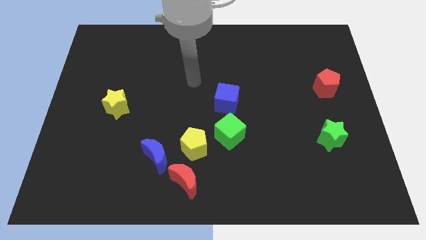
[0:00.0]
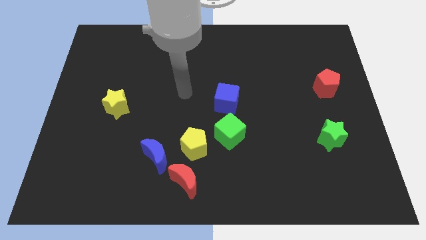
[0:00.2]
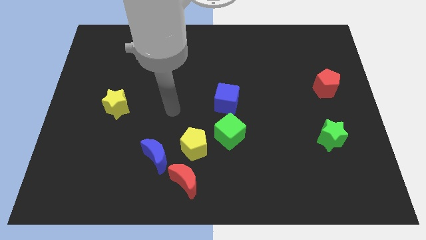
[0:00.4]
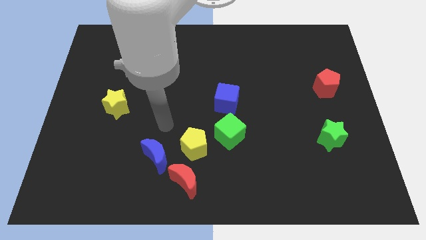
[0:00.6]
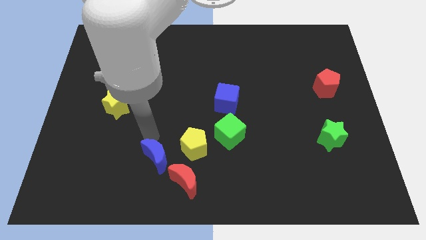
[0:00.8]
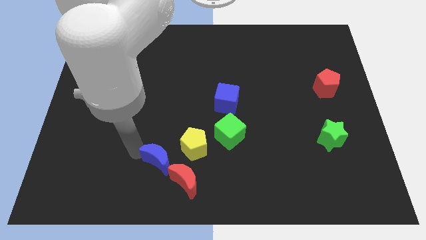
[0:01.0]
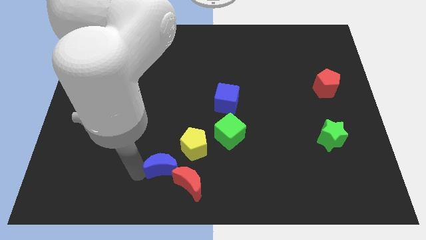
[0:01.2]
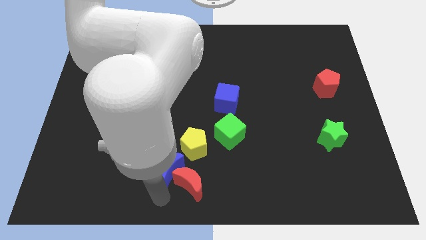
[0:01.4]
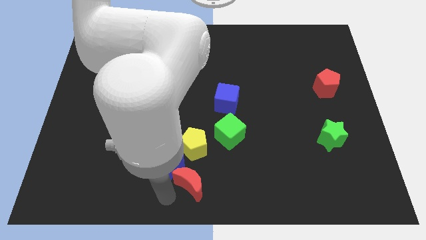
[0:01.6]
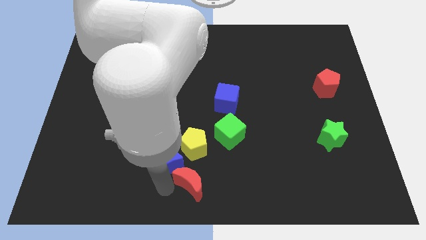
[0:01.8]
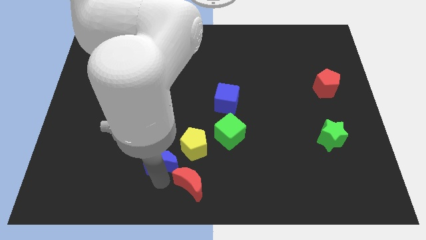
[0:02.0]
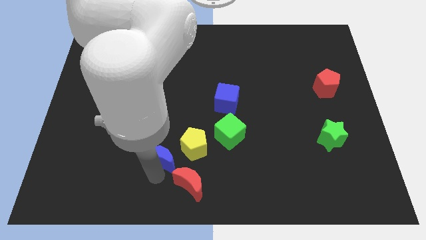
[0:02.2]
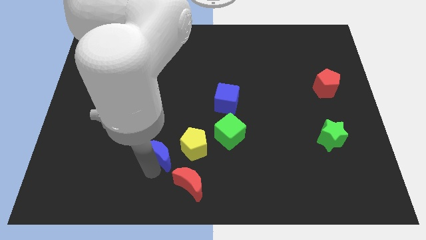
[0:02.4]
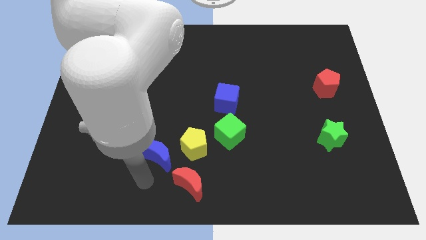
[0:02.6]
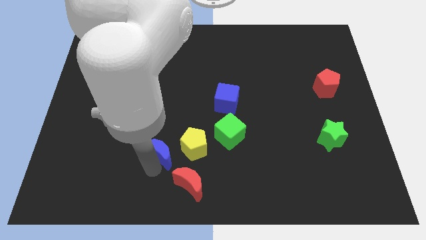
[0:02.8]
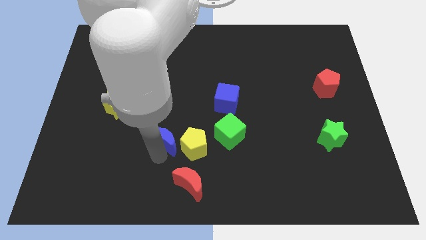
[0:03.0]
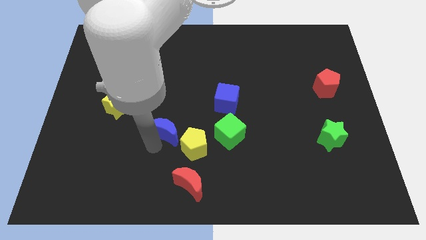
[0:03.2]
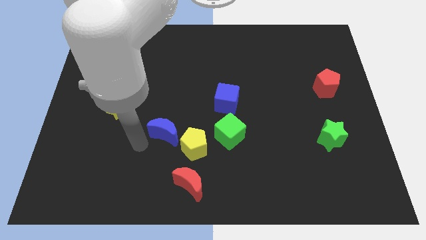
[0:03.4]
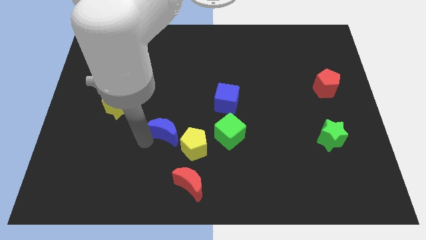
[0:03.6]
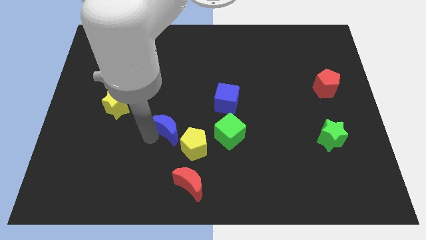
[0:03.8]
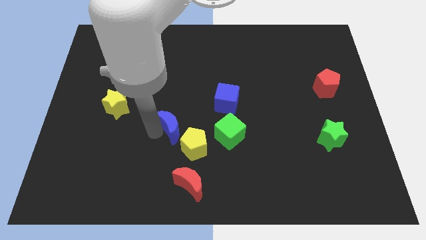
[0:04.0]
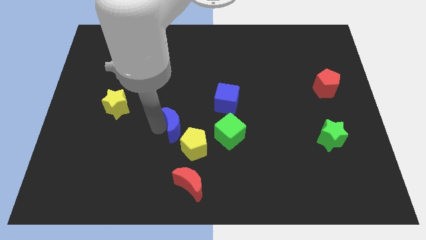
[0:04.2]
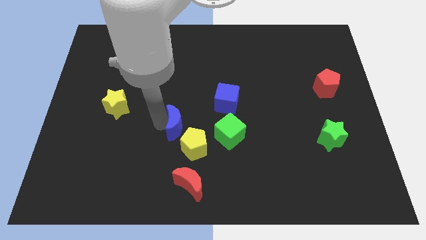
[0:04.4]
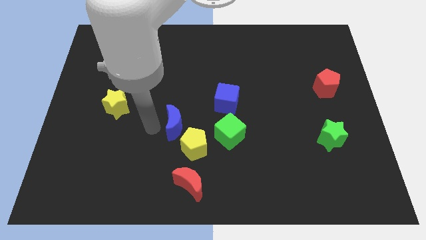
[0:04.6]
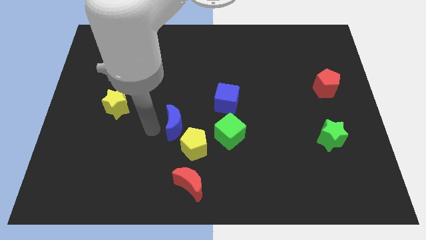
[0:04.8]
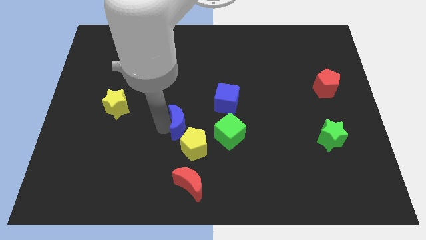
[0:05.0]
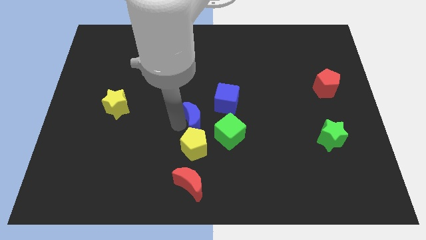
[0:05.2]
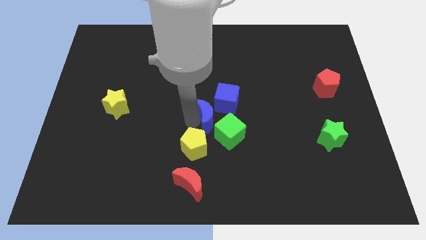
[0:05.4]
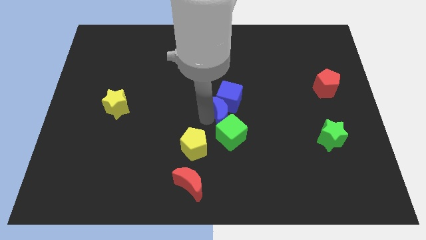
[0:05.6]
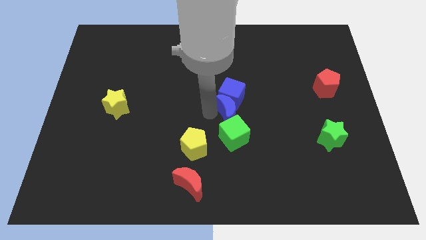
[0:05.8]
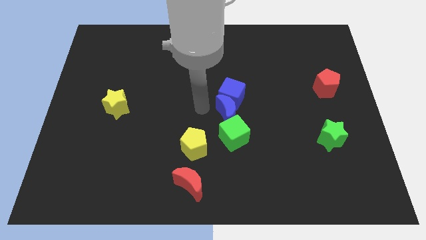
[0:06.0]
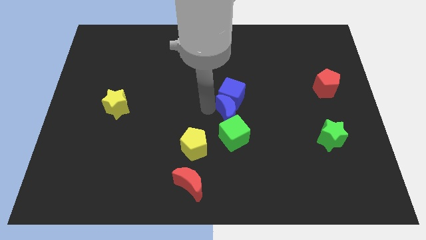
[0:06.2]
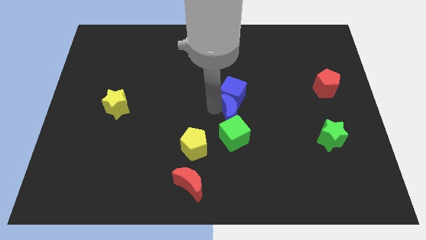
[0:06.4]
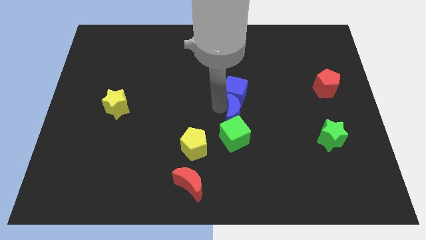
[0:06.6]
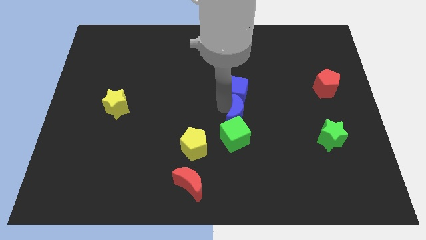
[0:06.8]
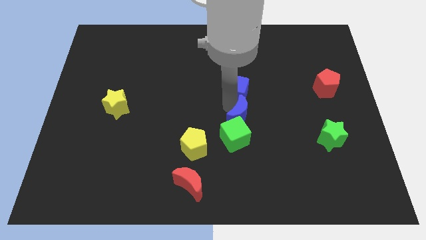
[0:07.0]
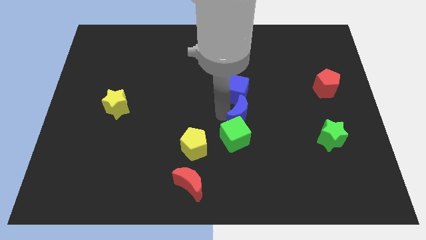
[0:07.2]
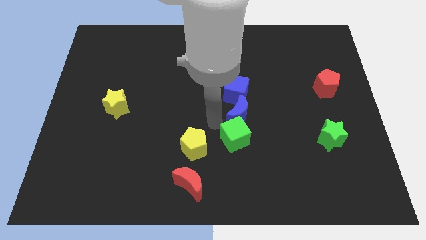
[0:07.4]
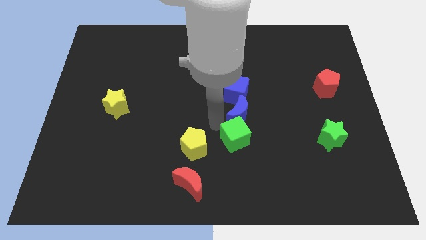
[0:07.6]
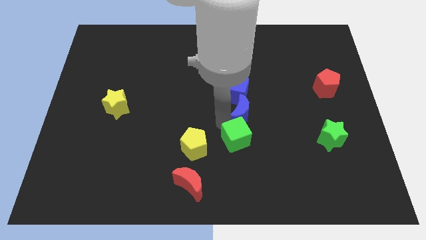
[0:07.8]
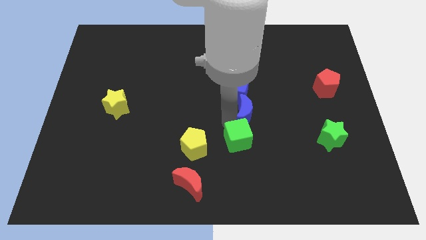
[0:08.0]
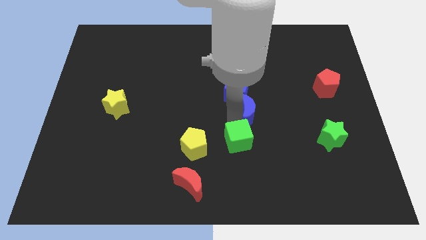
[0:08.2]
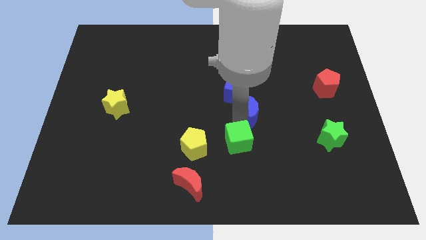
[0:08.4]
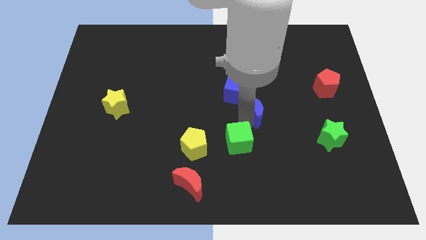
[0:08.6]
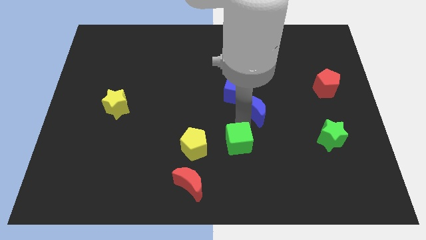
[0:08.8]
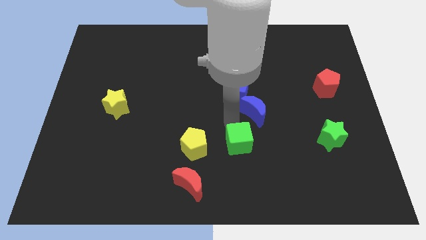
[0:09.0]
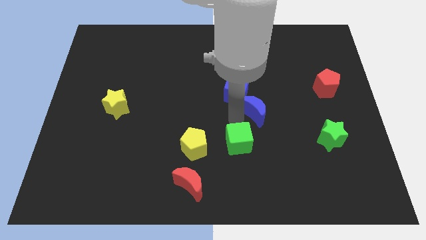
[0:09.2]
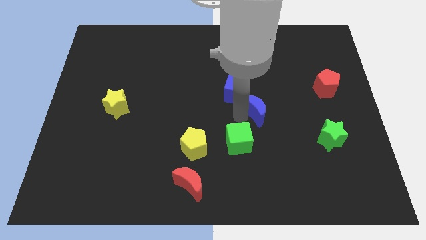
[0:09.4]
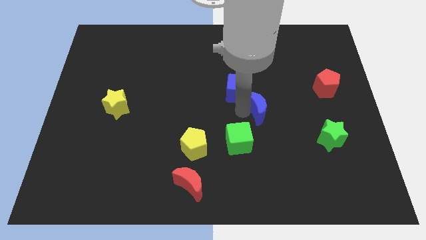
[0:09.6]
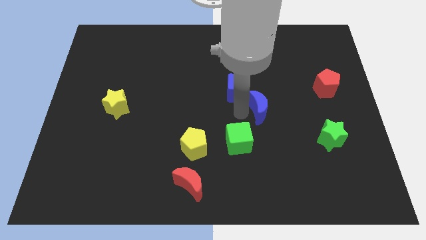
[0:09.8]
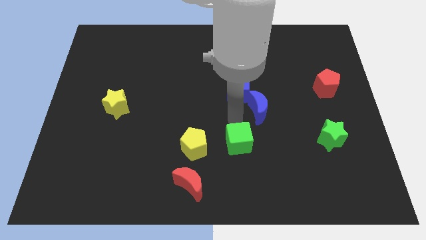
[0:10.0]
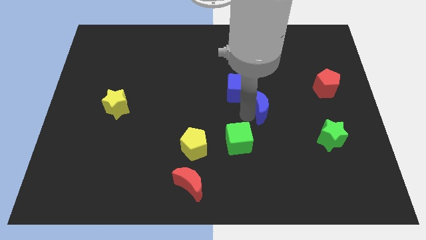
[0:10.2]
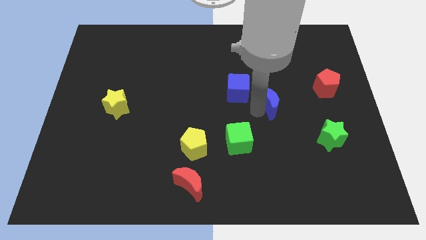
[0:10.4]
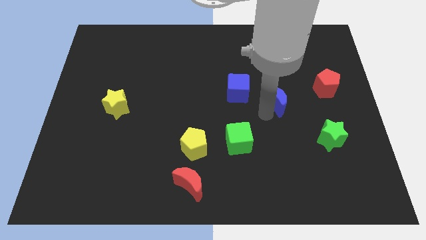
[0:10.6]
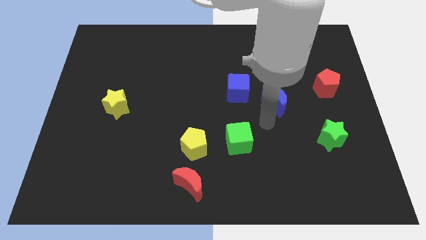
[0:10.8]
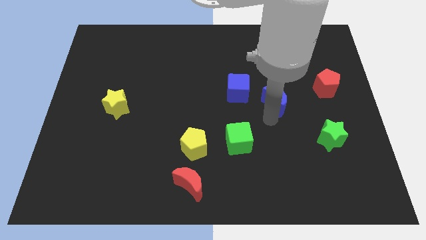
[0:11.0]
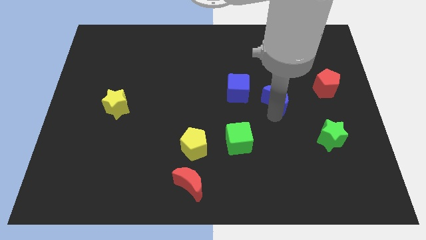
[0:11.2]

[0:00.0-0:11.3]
put the blue moon to the left of the red pentagon

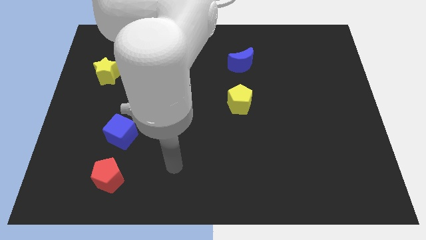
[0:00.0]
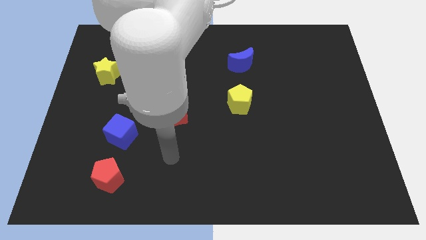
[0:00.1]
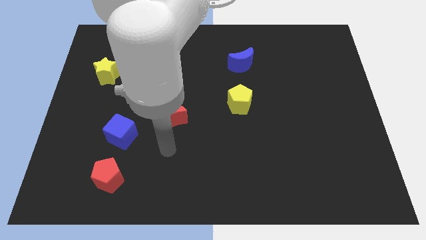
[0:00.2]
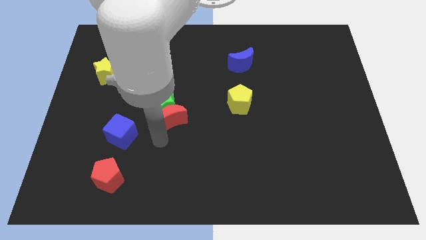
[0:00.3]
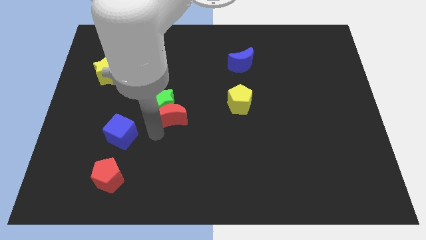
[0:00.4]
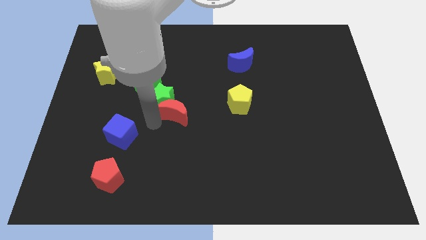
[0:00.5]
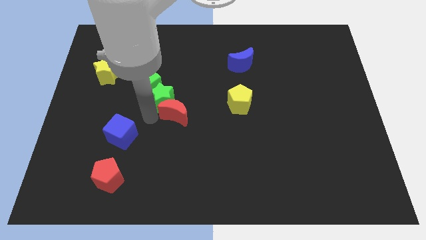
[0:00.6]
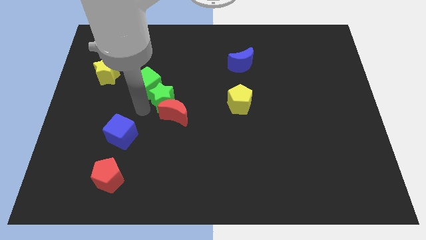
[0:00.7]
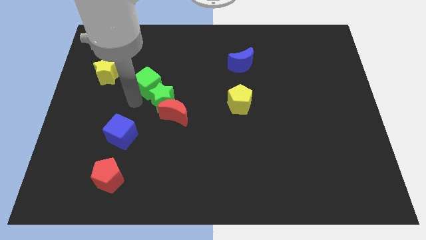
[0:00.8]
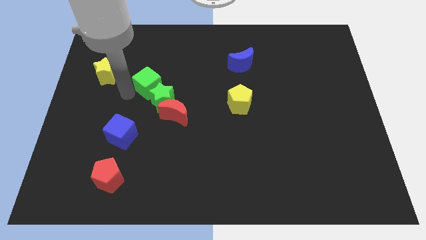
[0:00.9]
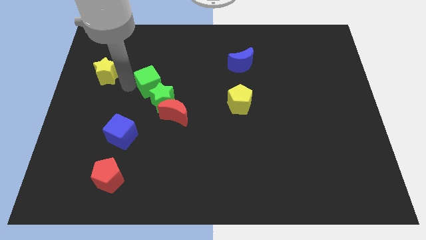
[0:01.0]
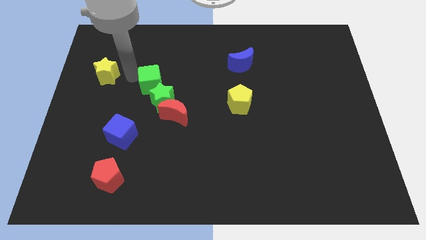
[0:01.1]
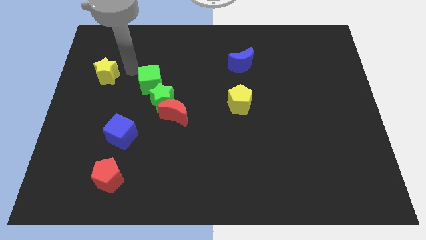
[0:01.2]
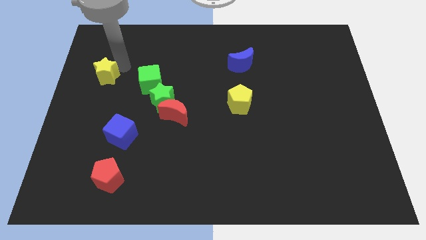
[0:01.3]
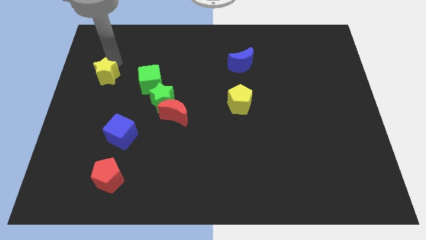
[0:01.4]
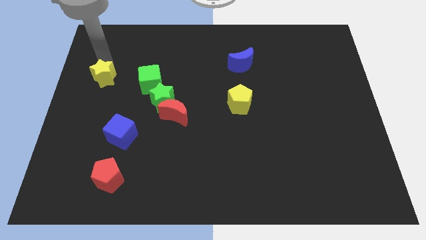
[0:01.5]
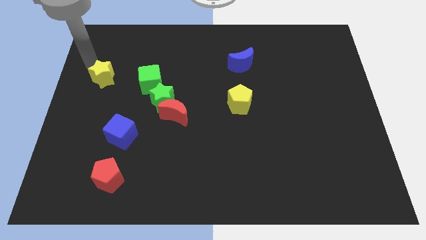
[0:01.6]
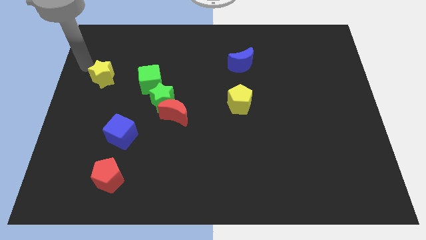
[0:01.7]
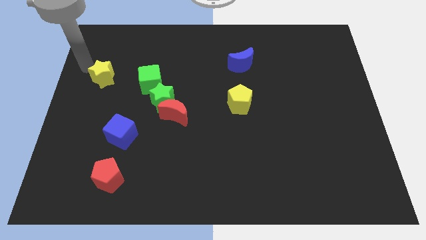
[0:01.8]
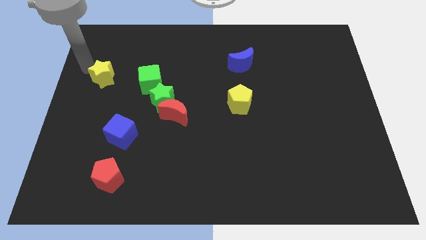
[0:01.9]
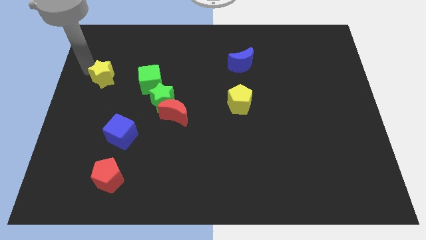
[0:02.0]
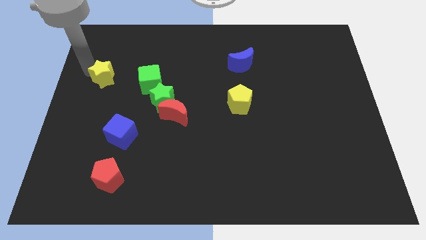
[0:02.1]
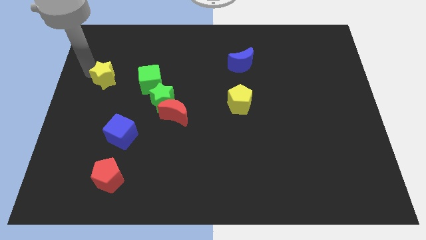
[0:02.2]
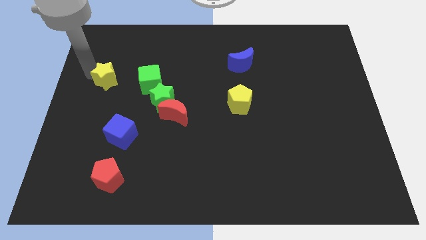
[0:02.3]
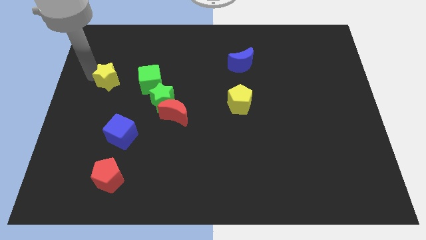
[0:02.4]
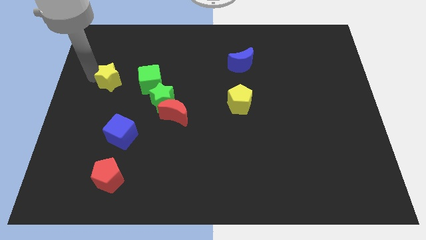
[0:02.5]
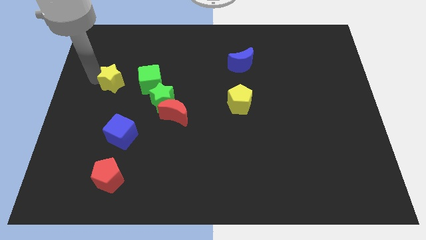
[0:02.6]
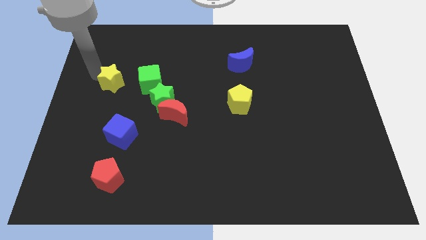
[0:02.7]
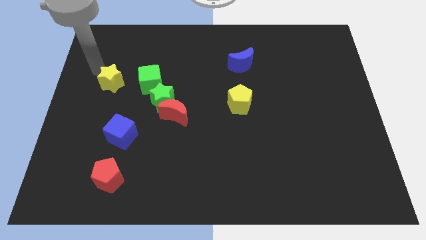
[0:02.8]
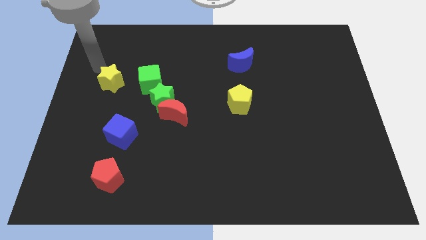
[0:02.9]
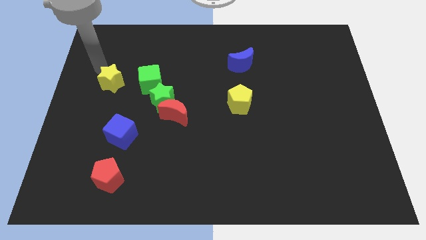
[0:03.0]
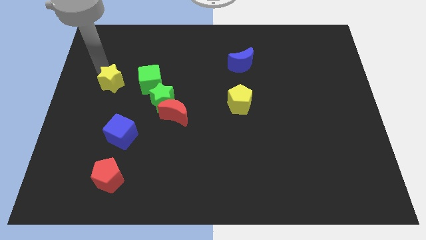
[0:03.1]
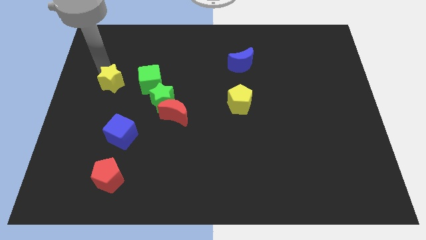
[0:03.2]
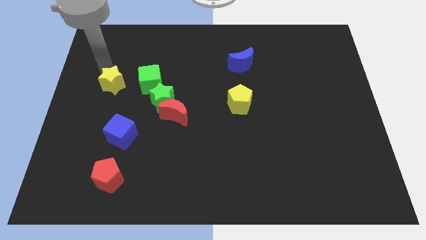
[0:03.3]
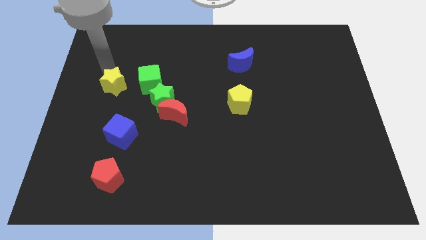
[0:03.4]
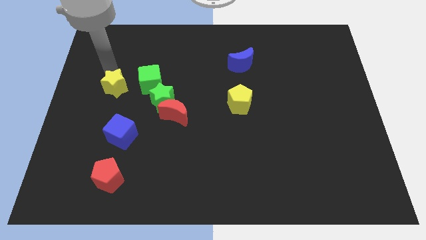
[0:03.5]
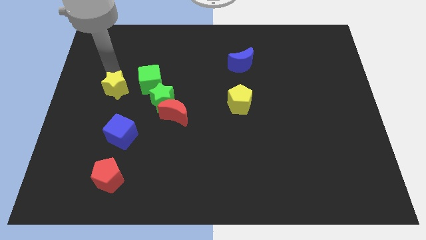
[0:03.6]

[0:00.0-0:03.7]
move the yellow star to the bottom left of the green cube
